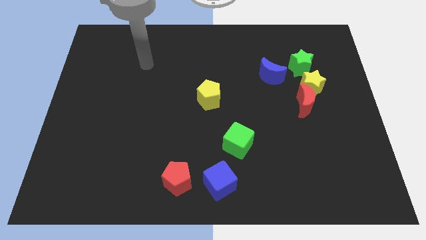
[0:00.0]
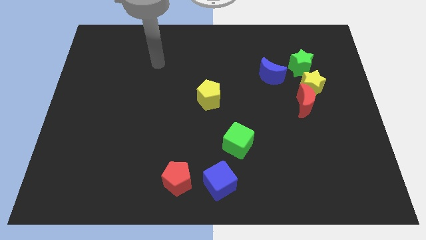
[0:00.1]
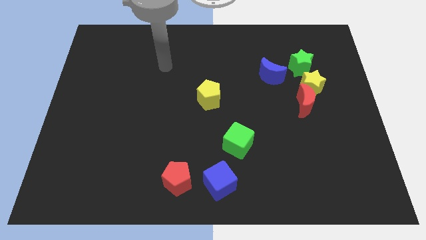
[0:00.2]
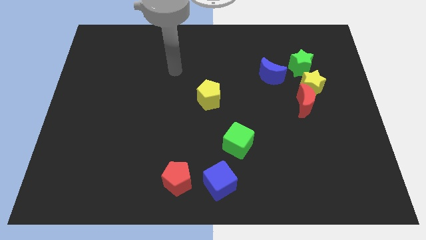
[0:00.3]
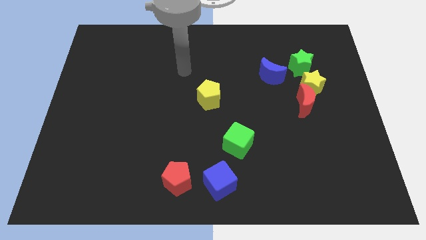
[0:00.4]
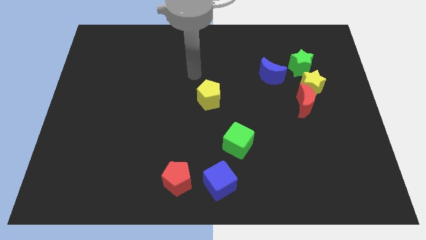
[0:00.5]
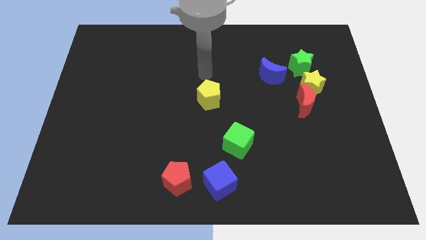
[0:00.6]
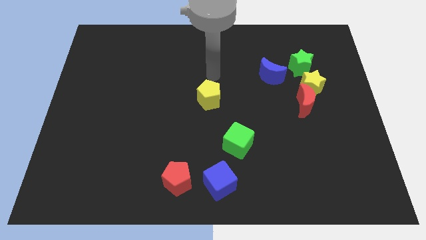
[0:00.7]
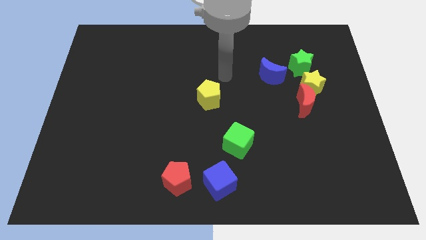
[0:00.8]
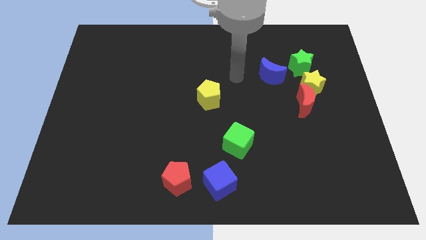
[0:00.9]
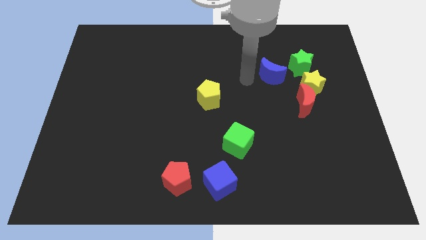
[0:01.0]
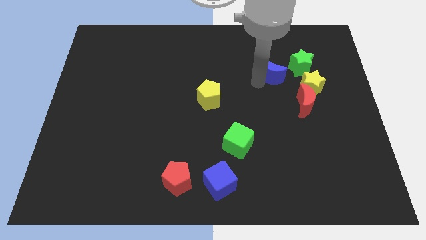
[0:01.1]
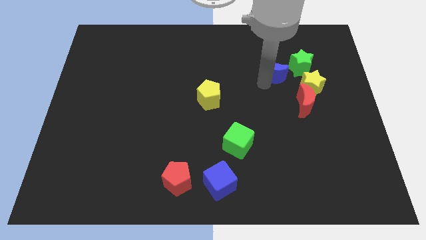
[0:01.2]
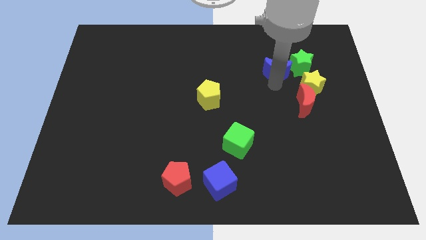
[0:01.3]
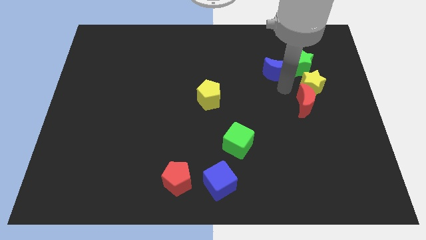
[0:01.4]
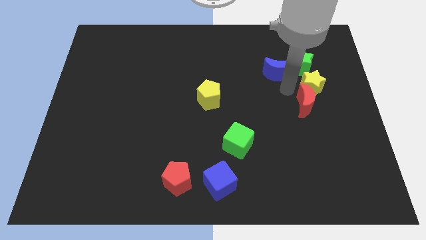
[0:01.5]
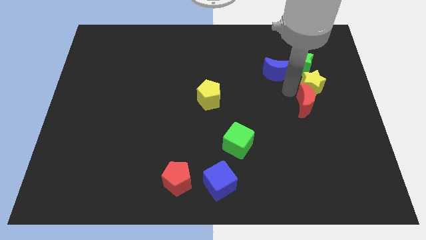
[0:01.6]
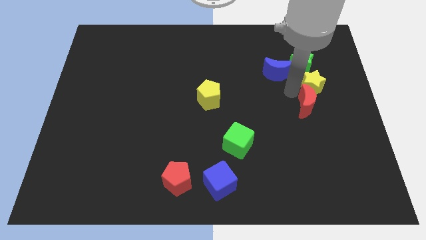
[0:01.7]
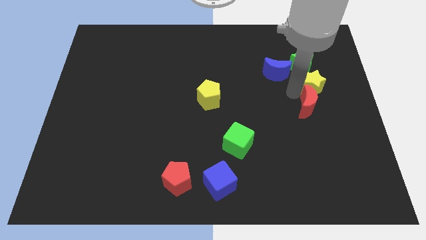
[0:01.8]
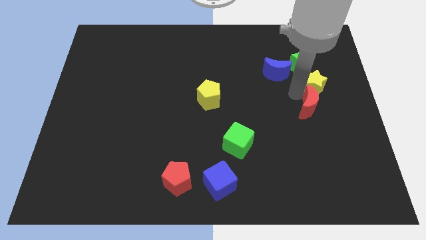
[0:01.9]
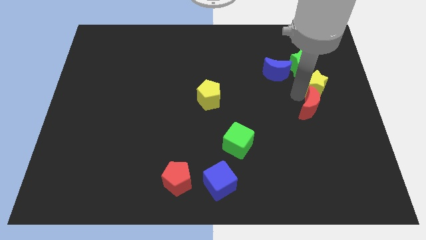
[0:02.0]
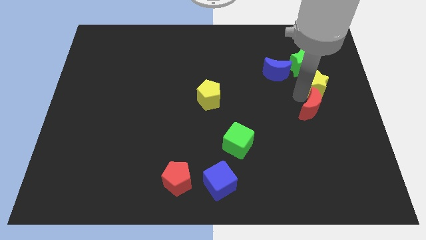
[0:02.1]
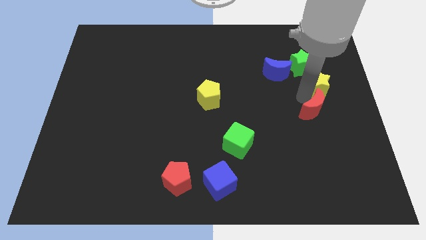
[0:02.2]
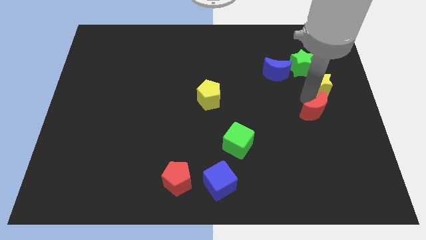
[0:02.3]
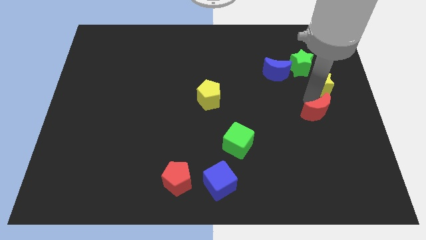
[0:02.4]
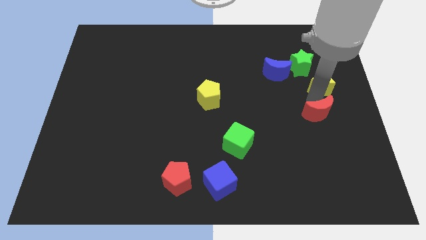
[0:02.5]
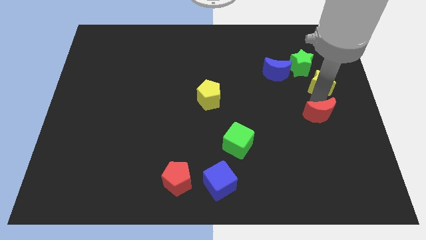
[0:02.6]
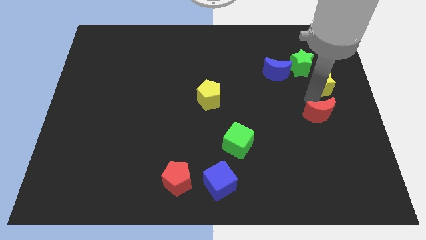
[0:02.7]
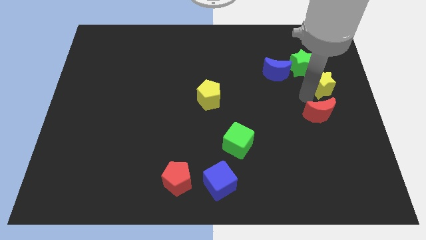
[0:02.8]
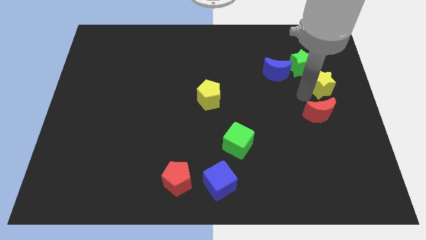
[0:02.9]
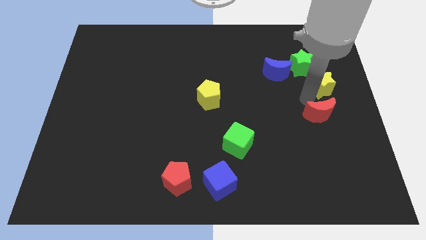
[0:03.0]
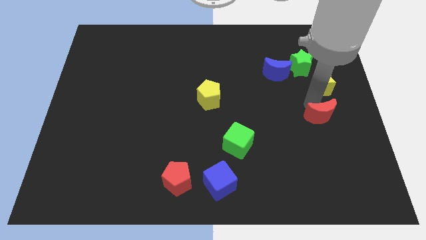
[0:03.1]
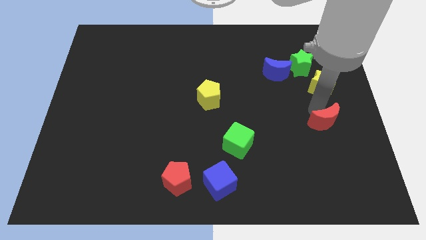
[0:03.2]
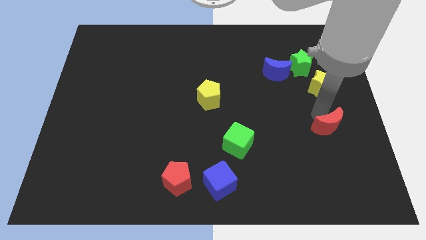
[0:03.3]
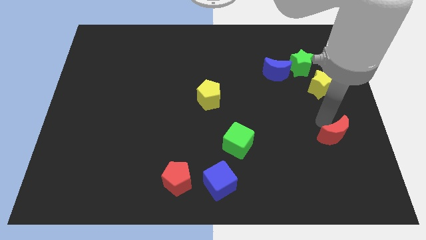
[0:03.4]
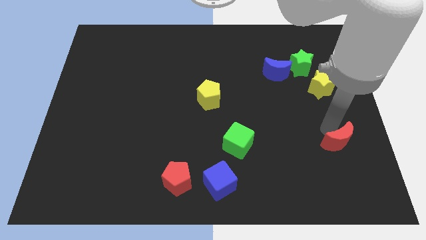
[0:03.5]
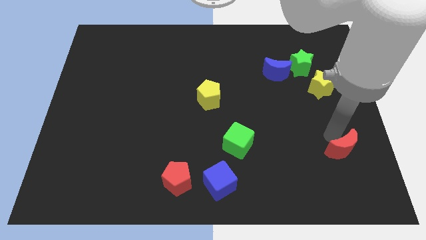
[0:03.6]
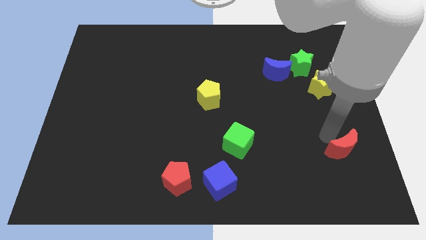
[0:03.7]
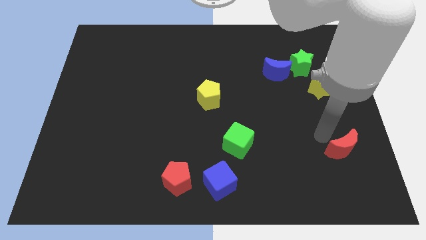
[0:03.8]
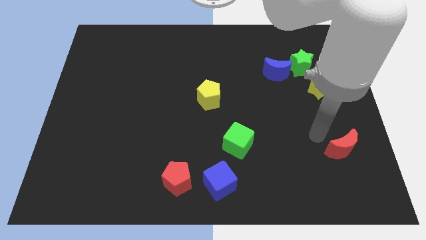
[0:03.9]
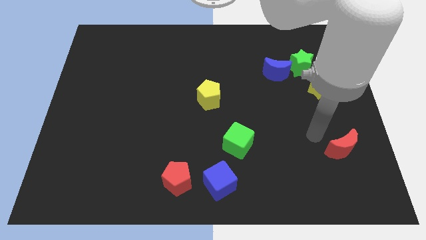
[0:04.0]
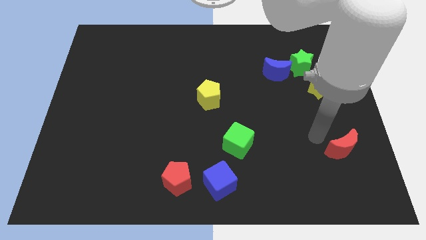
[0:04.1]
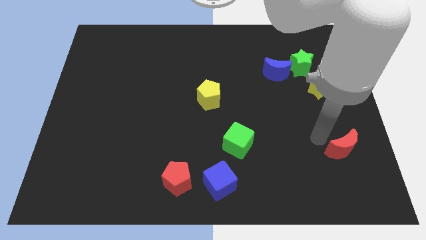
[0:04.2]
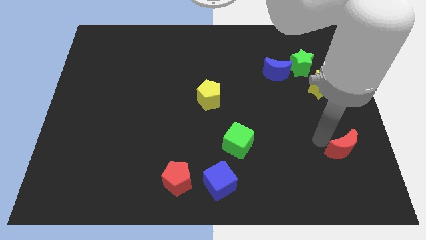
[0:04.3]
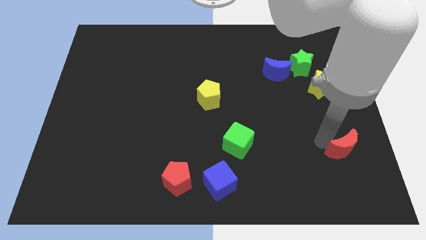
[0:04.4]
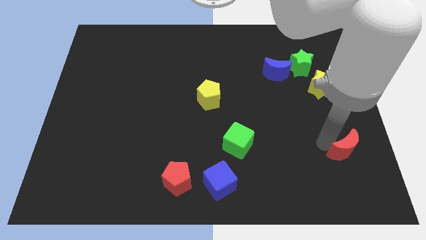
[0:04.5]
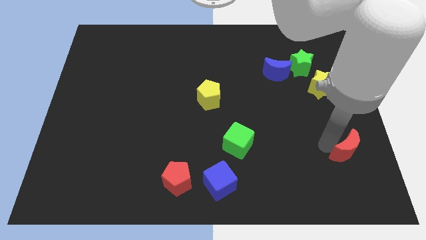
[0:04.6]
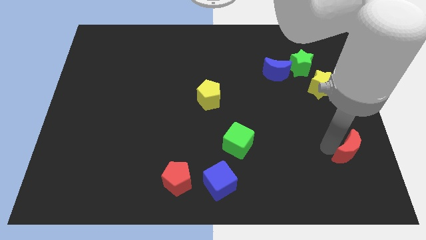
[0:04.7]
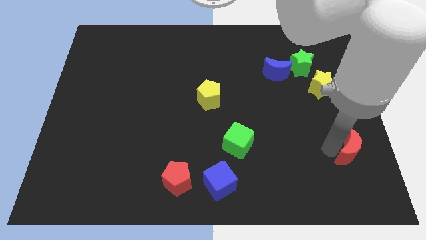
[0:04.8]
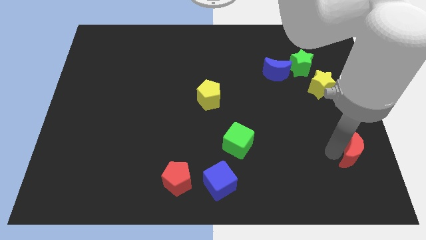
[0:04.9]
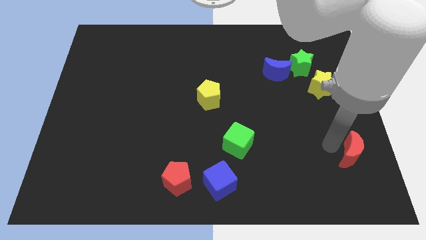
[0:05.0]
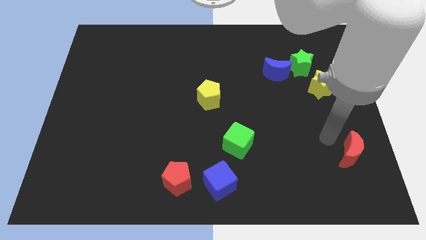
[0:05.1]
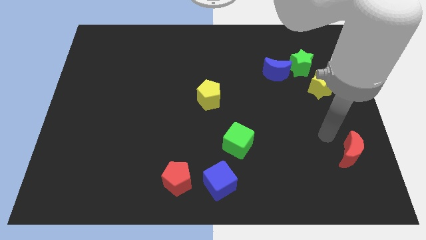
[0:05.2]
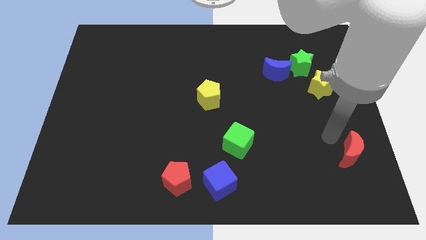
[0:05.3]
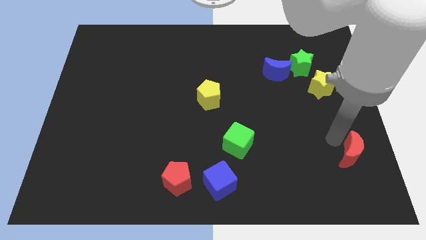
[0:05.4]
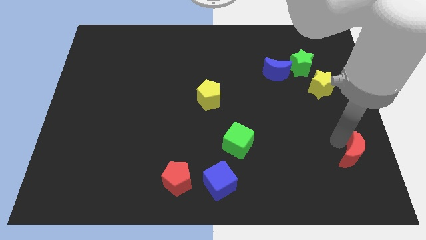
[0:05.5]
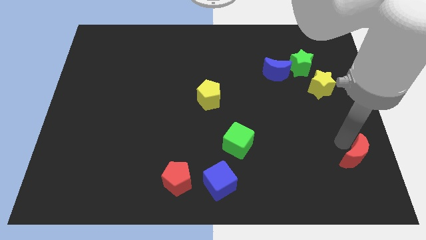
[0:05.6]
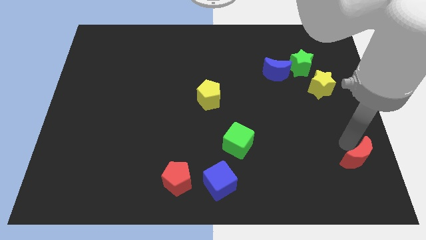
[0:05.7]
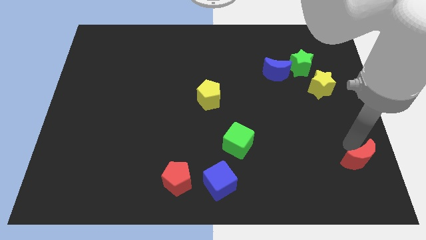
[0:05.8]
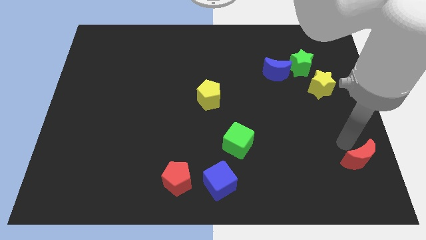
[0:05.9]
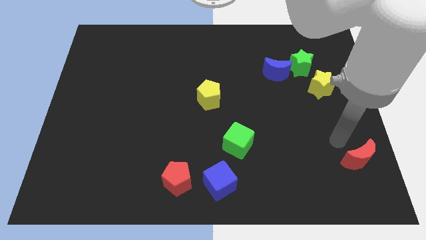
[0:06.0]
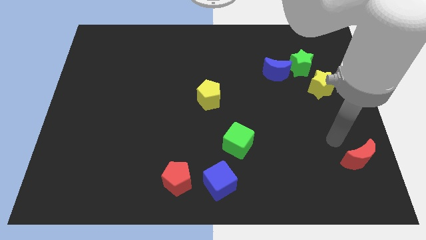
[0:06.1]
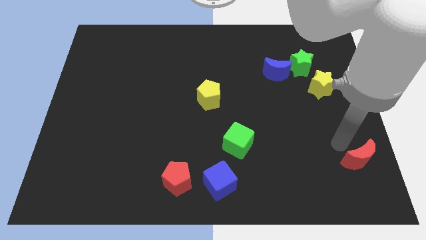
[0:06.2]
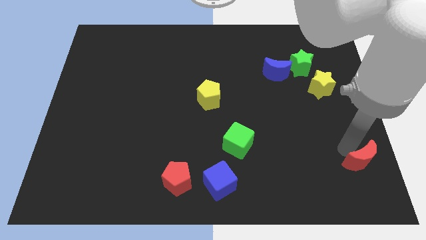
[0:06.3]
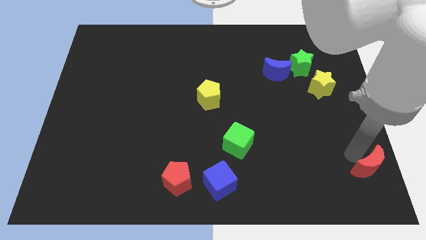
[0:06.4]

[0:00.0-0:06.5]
move the red moon to the bottom right of the board
